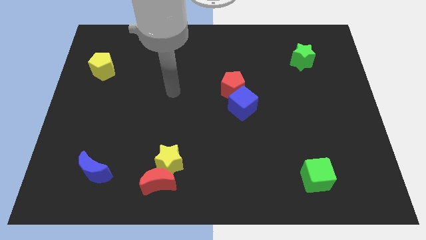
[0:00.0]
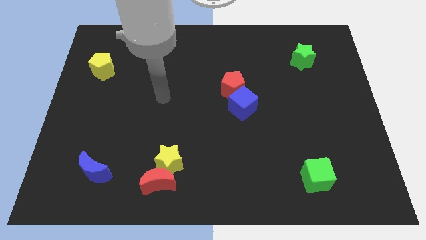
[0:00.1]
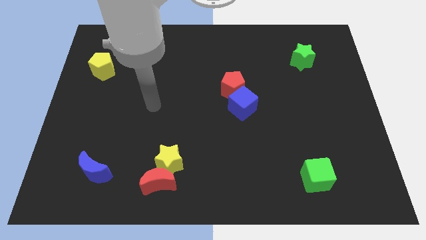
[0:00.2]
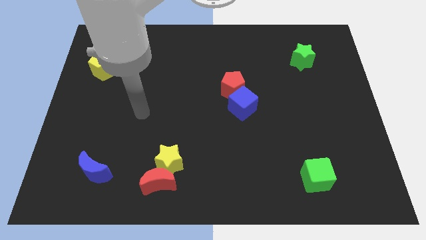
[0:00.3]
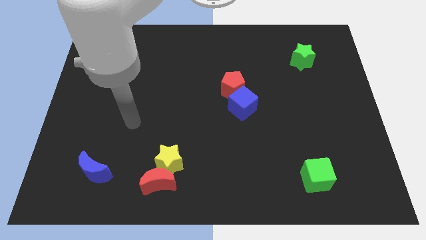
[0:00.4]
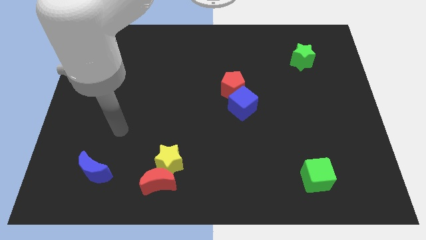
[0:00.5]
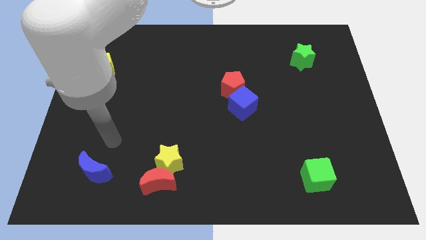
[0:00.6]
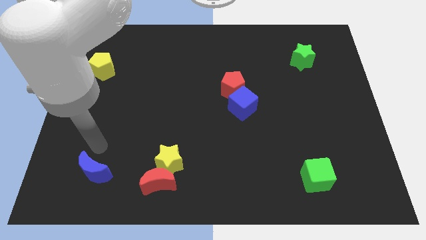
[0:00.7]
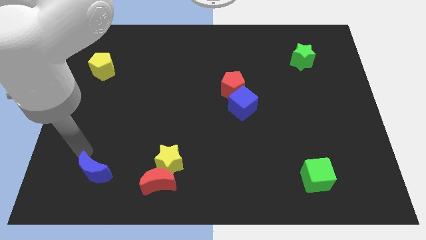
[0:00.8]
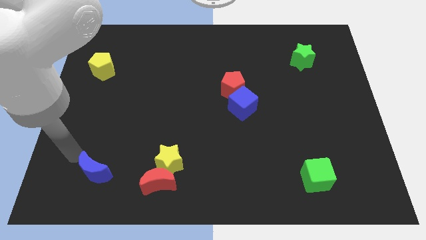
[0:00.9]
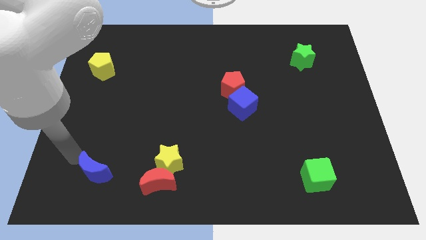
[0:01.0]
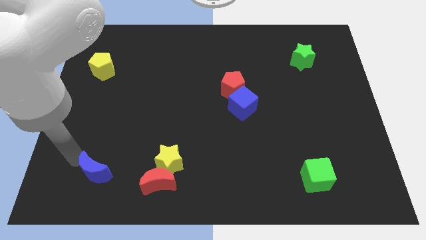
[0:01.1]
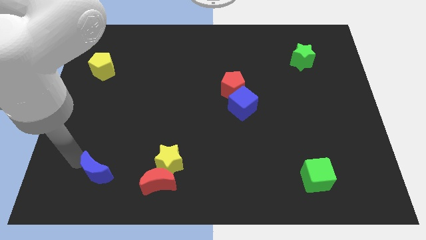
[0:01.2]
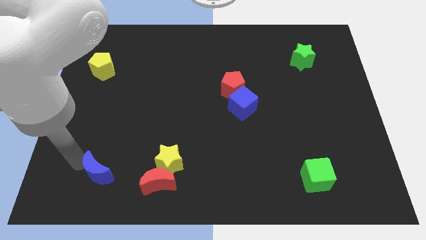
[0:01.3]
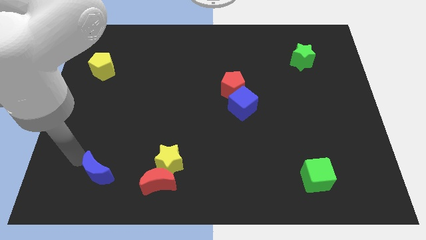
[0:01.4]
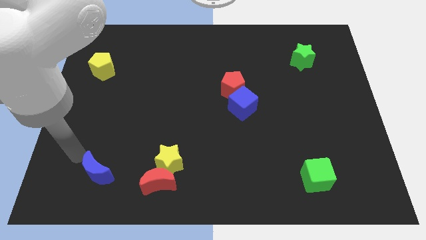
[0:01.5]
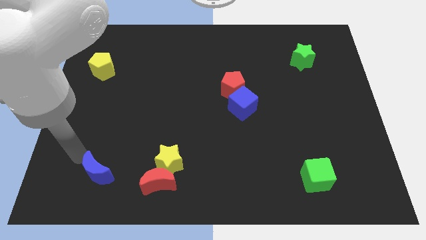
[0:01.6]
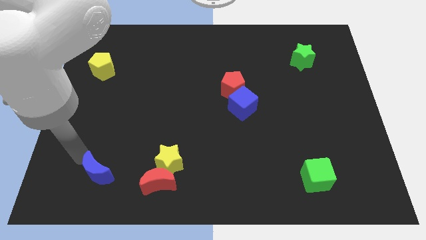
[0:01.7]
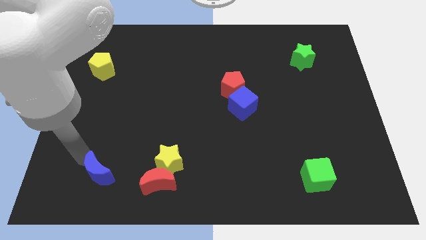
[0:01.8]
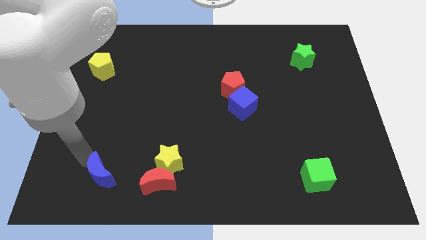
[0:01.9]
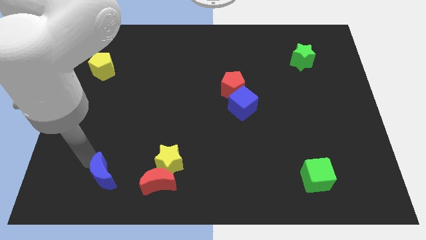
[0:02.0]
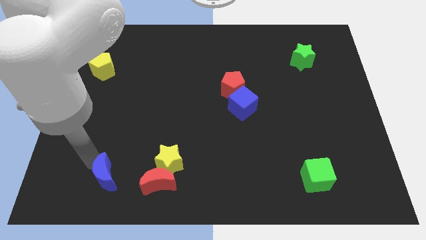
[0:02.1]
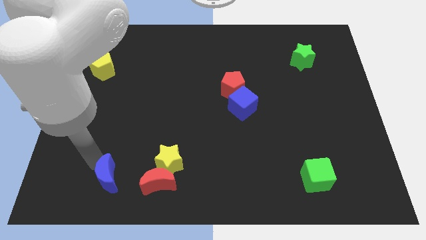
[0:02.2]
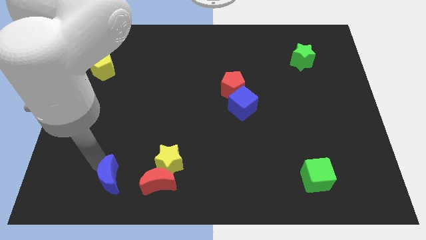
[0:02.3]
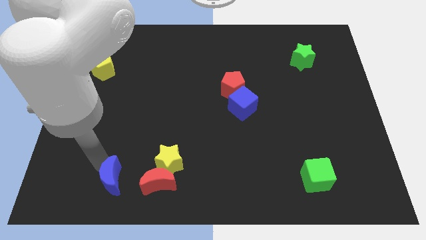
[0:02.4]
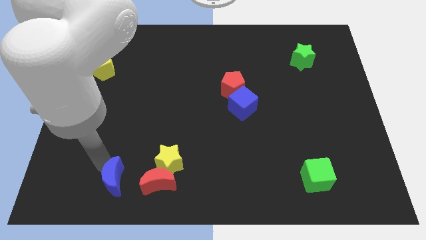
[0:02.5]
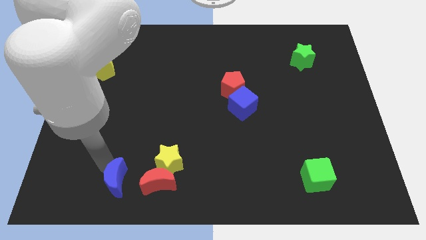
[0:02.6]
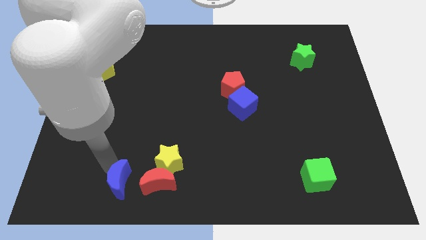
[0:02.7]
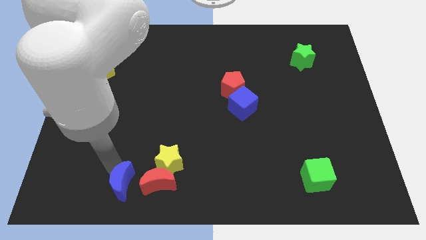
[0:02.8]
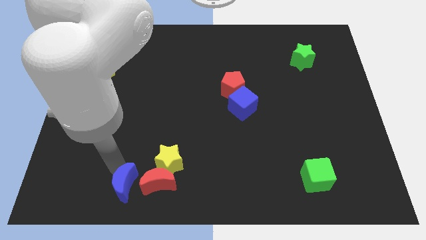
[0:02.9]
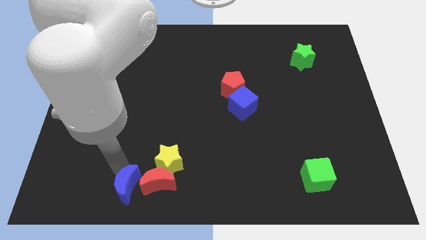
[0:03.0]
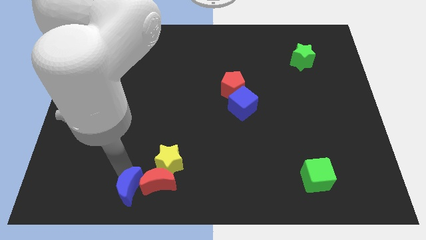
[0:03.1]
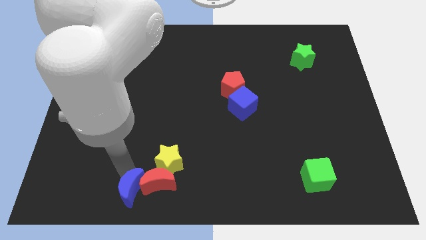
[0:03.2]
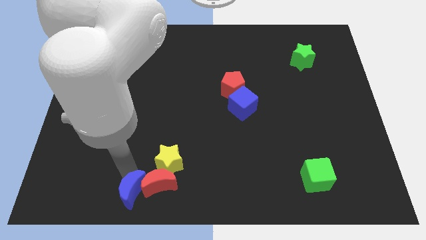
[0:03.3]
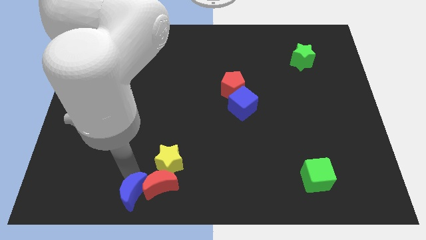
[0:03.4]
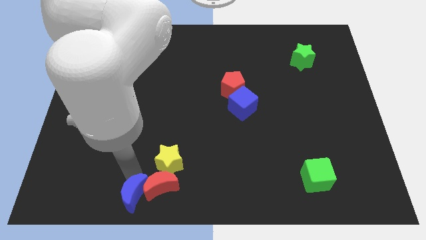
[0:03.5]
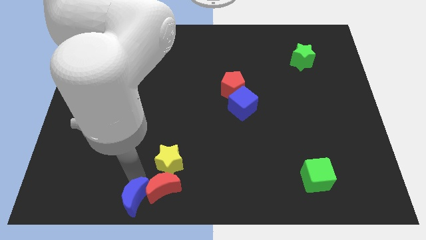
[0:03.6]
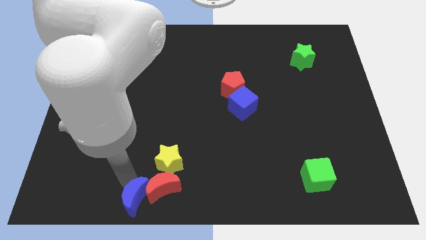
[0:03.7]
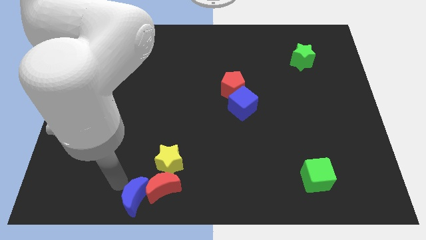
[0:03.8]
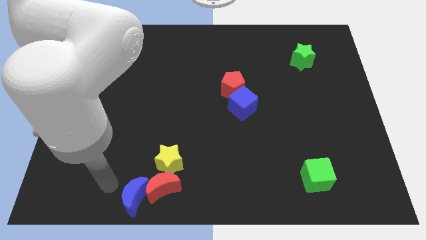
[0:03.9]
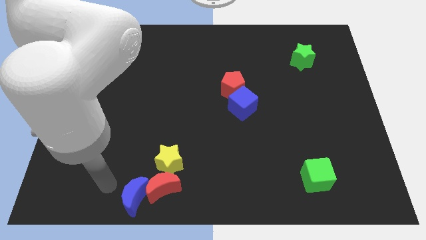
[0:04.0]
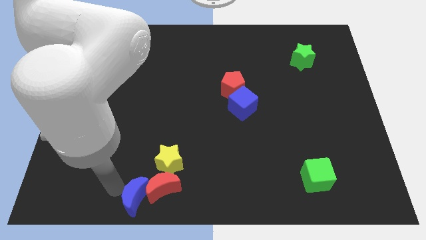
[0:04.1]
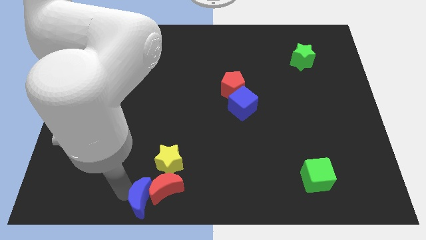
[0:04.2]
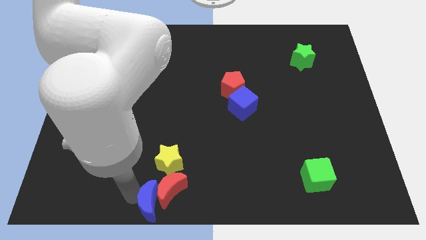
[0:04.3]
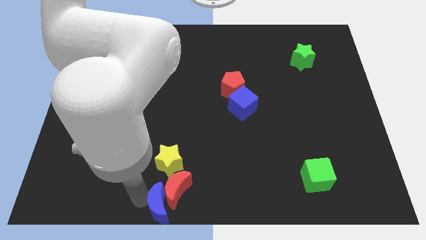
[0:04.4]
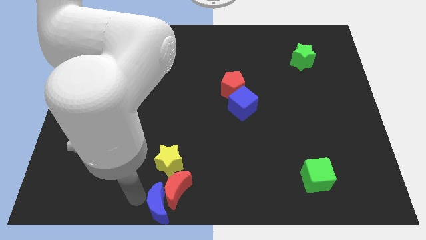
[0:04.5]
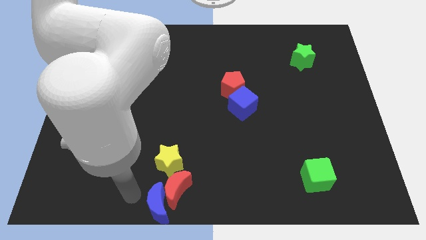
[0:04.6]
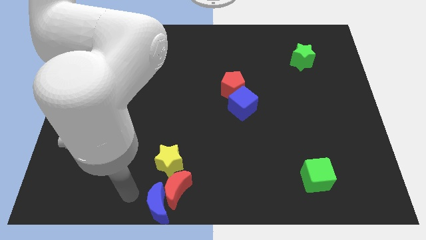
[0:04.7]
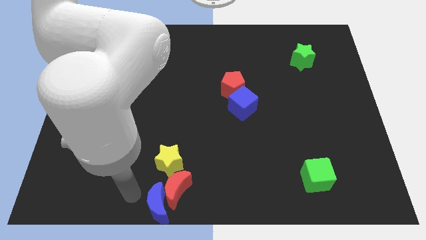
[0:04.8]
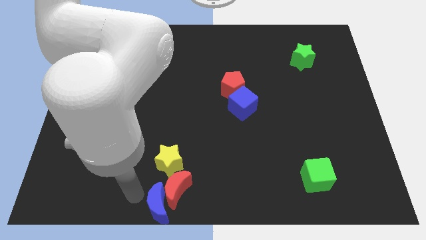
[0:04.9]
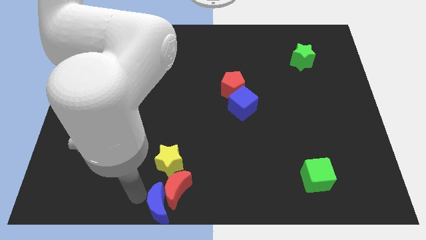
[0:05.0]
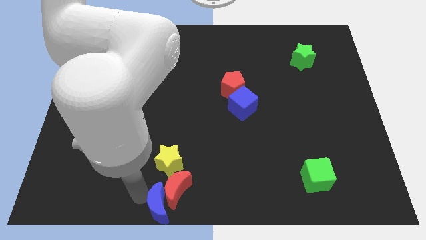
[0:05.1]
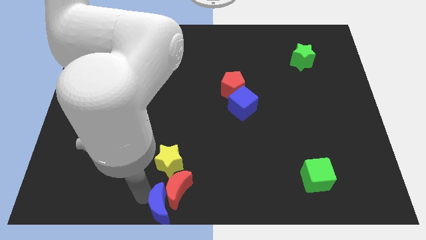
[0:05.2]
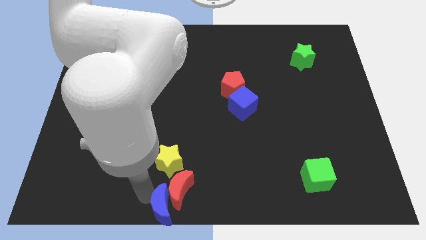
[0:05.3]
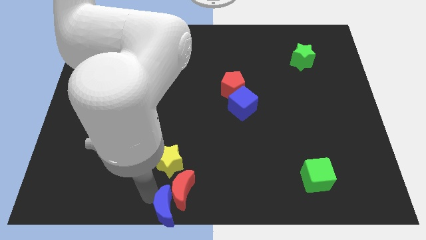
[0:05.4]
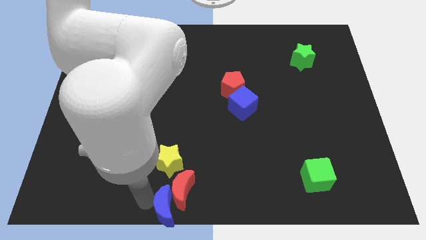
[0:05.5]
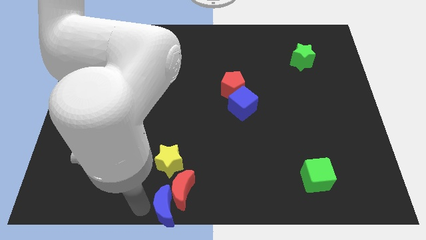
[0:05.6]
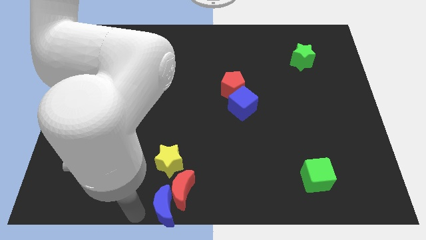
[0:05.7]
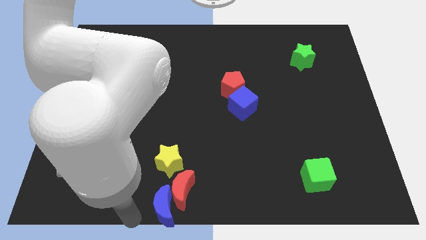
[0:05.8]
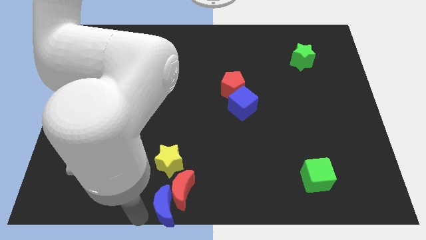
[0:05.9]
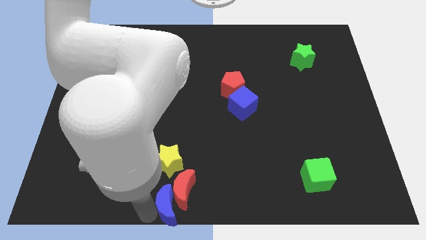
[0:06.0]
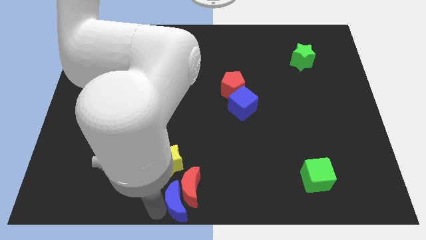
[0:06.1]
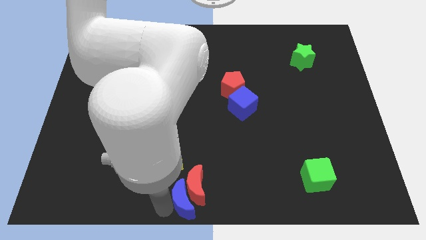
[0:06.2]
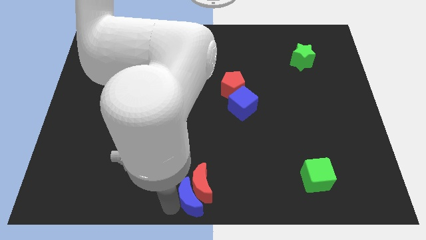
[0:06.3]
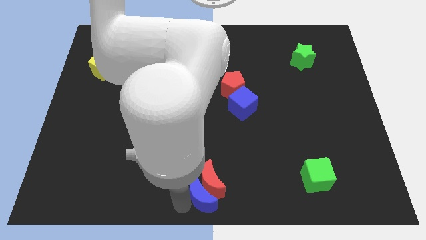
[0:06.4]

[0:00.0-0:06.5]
move the blue moon right

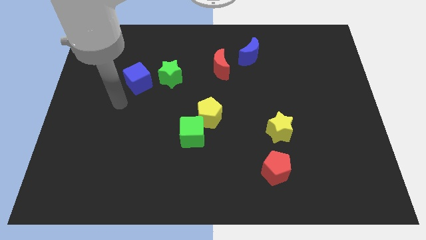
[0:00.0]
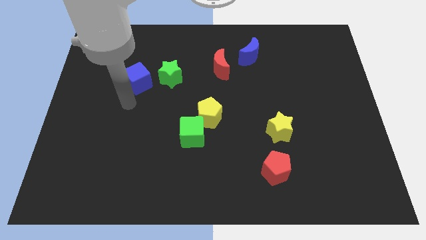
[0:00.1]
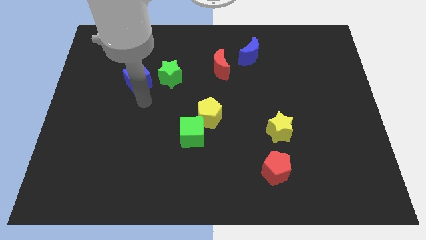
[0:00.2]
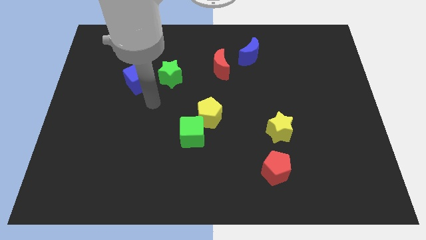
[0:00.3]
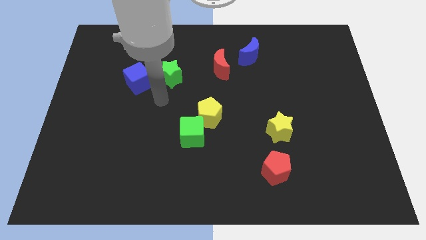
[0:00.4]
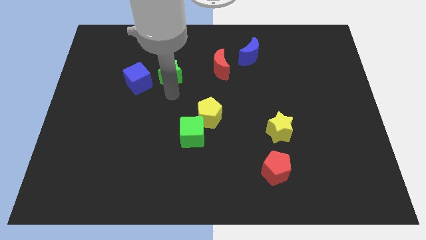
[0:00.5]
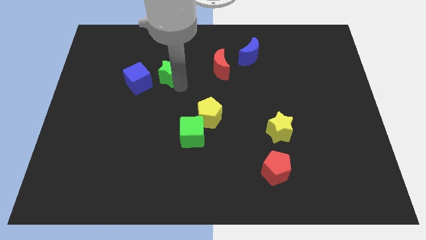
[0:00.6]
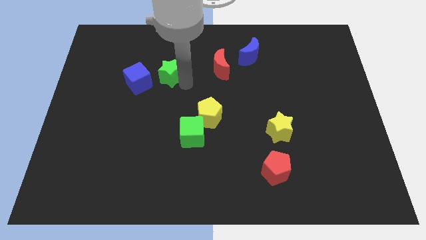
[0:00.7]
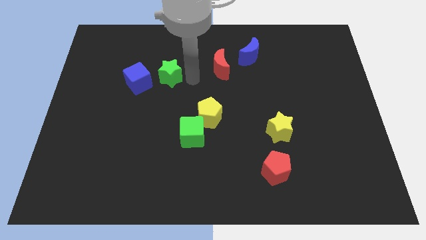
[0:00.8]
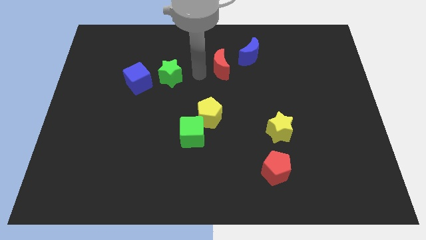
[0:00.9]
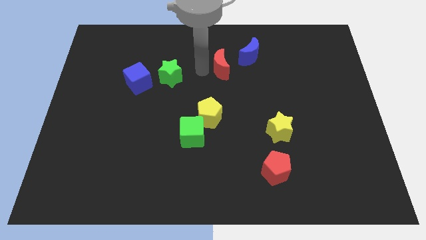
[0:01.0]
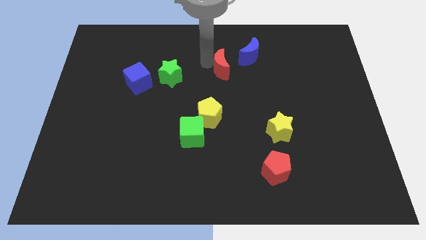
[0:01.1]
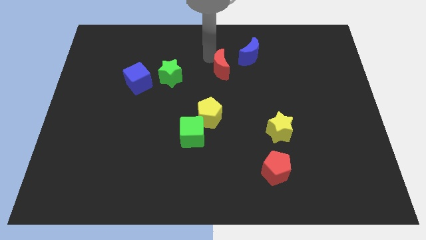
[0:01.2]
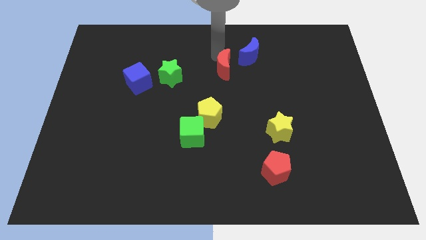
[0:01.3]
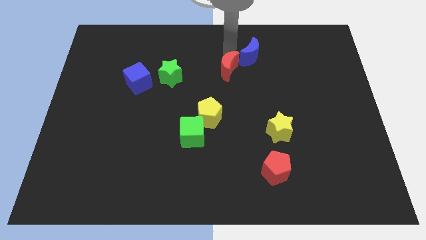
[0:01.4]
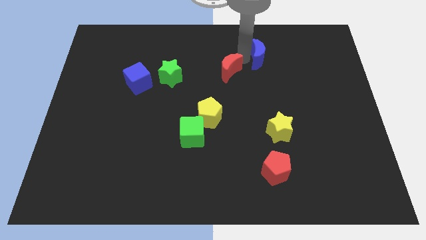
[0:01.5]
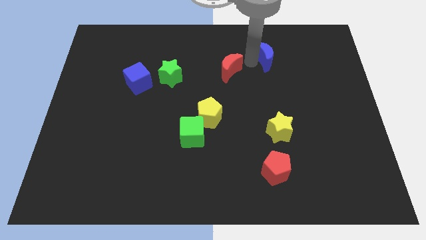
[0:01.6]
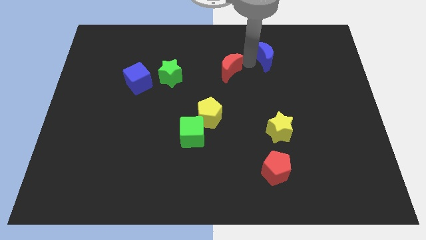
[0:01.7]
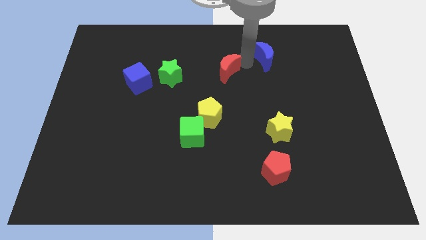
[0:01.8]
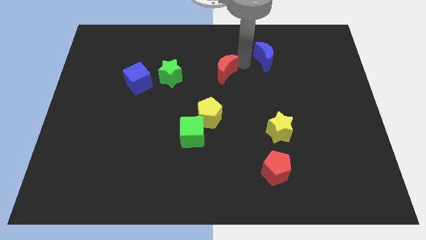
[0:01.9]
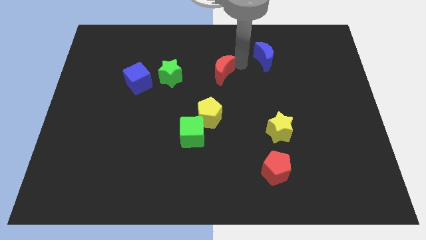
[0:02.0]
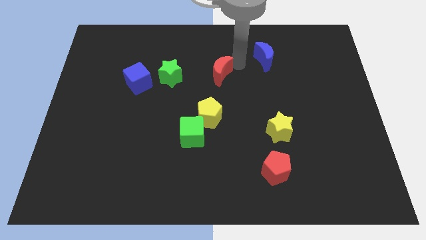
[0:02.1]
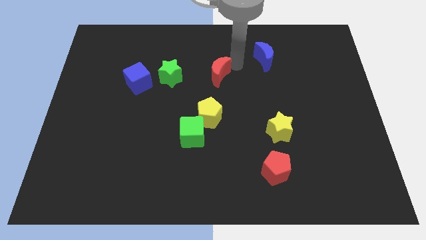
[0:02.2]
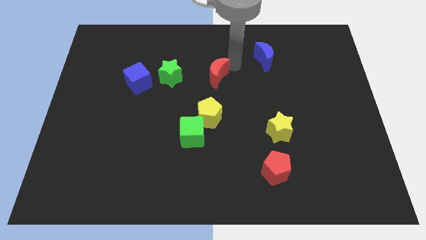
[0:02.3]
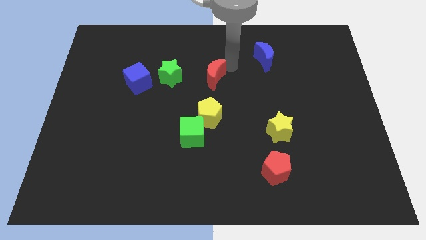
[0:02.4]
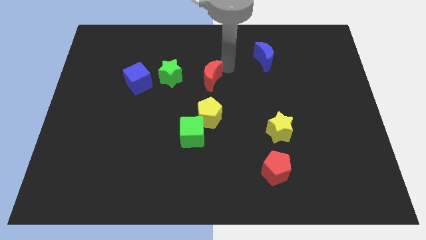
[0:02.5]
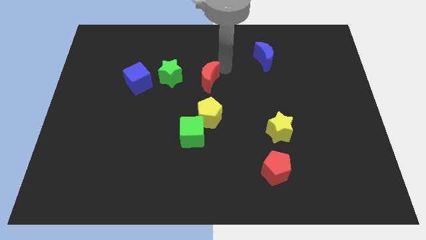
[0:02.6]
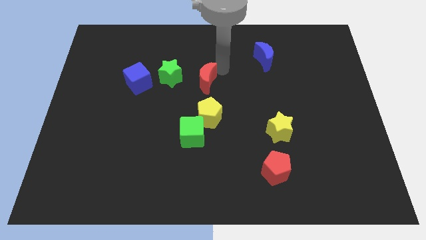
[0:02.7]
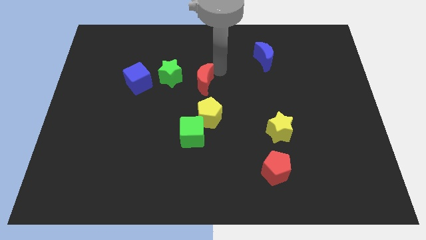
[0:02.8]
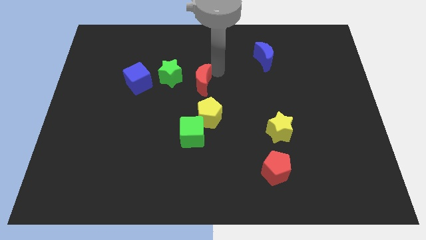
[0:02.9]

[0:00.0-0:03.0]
slightly slide the red moon downwards and then left
